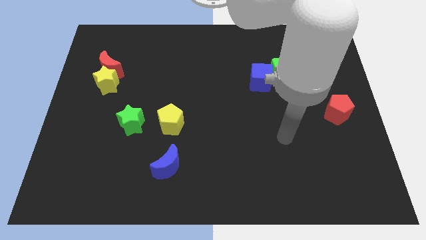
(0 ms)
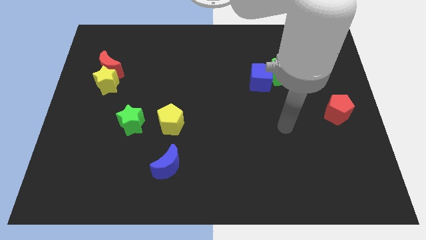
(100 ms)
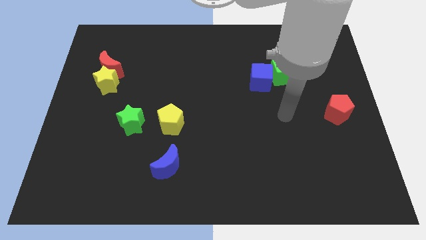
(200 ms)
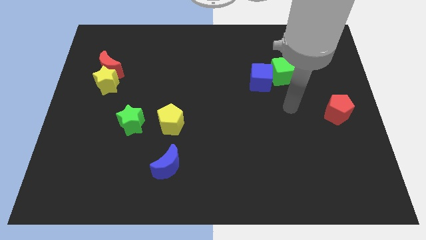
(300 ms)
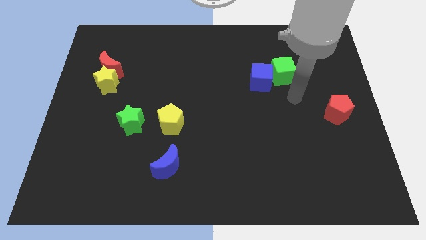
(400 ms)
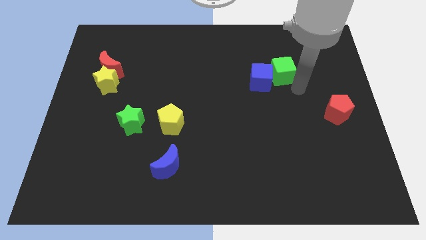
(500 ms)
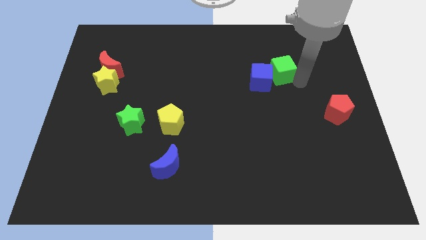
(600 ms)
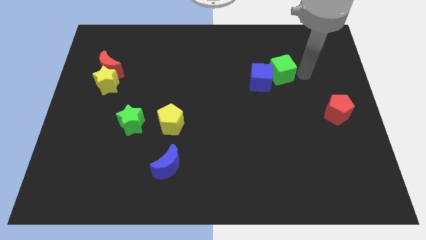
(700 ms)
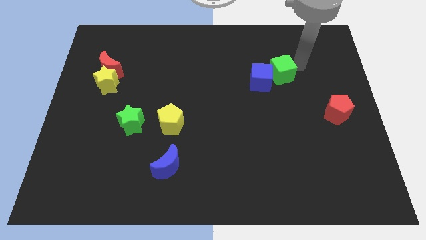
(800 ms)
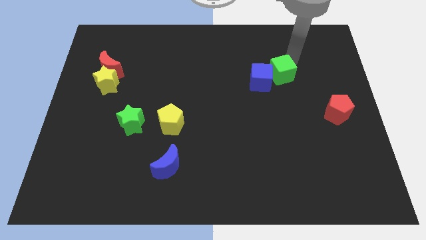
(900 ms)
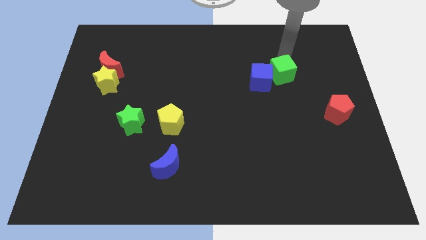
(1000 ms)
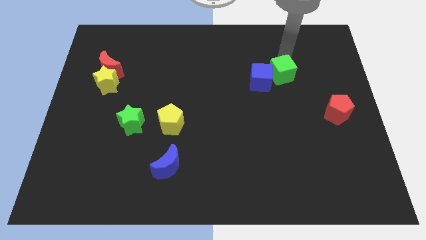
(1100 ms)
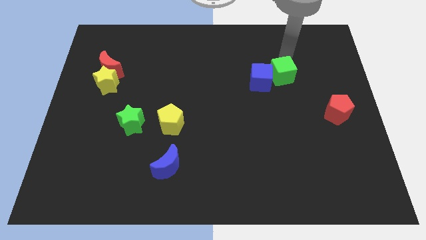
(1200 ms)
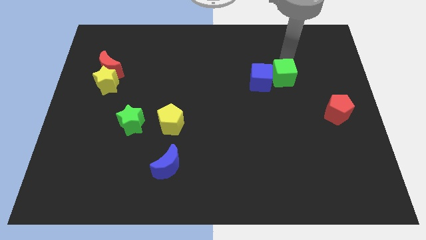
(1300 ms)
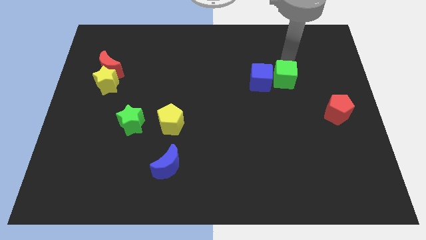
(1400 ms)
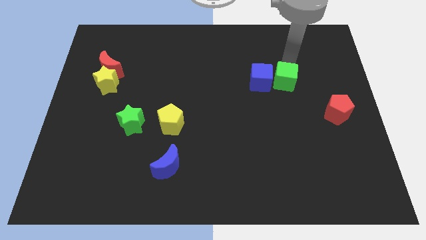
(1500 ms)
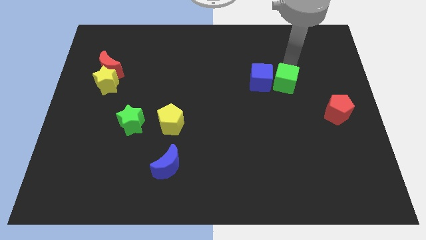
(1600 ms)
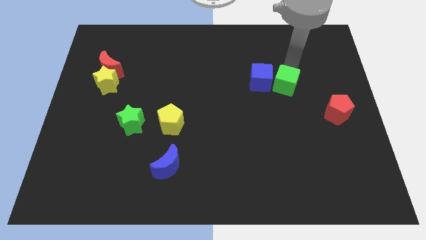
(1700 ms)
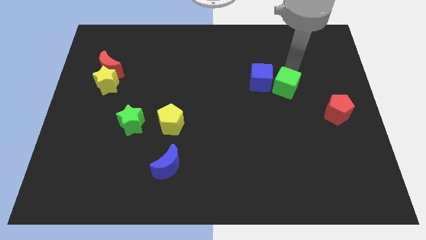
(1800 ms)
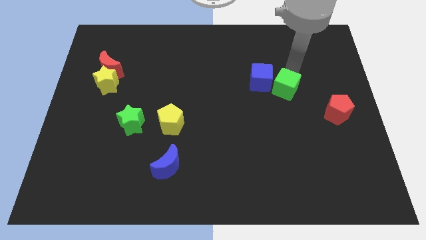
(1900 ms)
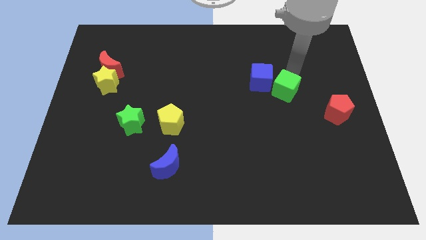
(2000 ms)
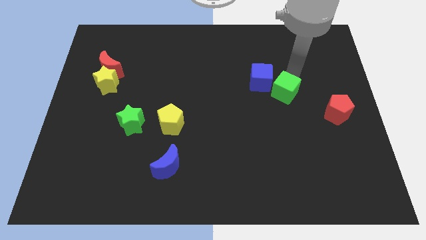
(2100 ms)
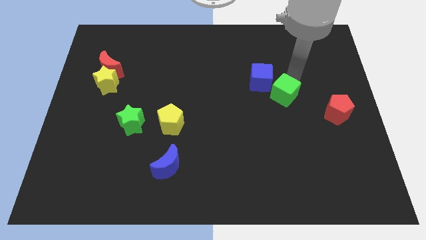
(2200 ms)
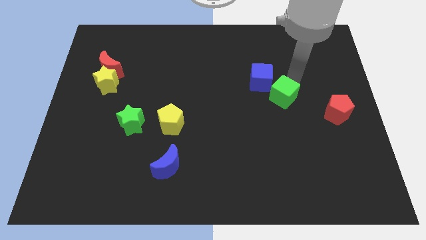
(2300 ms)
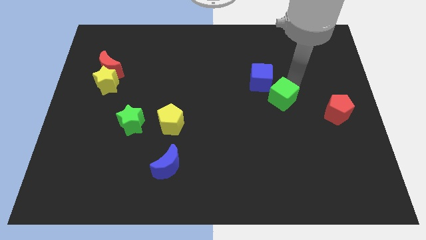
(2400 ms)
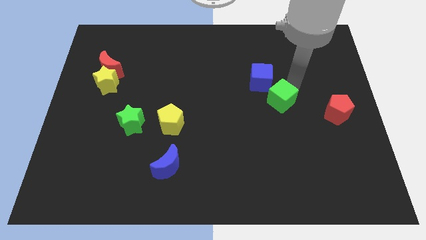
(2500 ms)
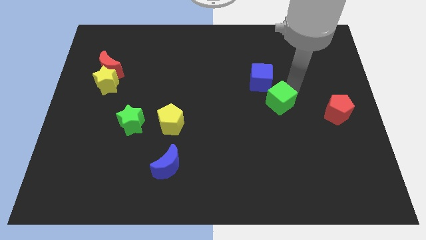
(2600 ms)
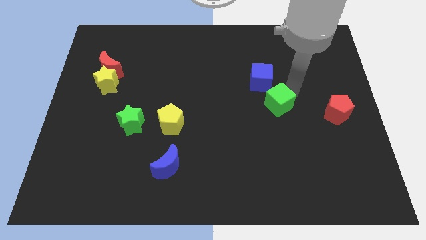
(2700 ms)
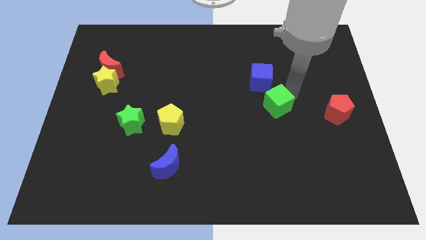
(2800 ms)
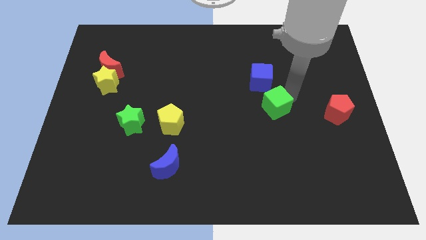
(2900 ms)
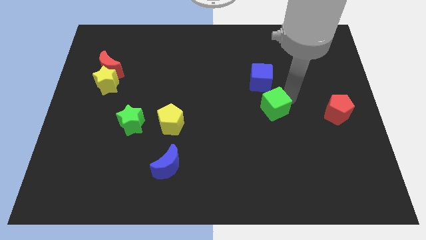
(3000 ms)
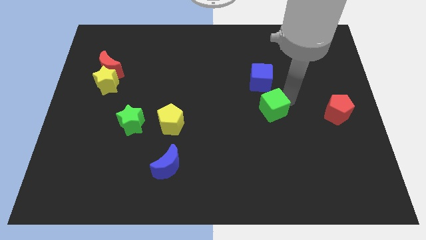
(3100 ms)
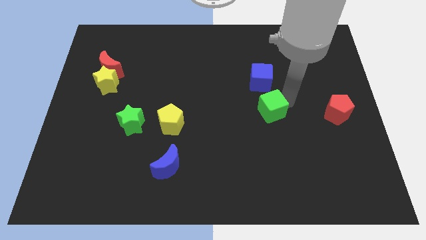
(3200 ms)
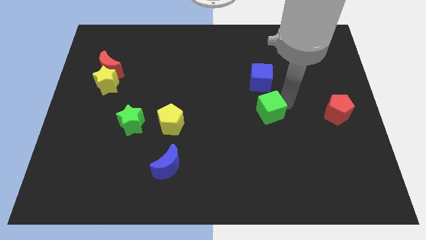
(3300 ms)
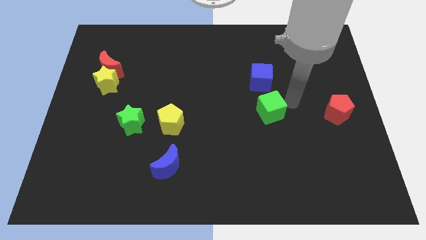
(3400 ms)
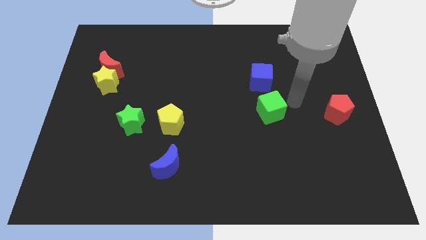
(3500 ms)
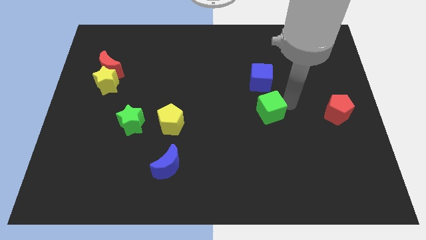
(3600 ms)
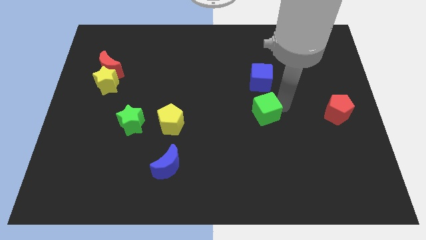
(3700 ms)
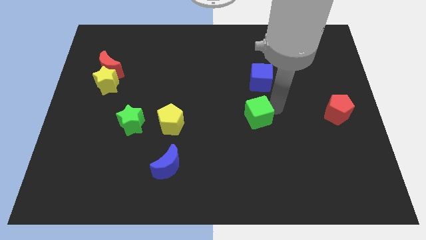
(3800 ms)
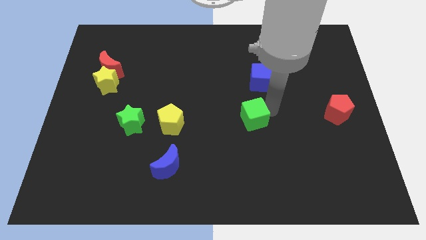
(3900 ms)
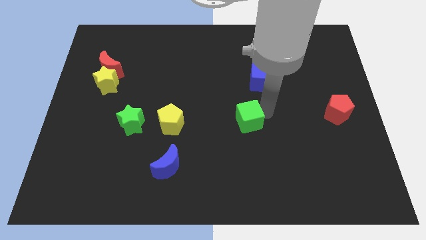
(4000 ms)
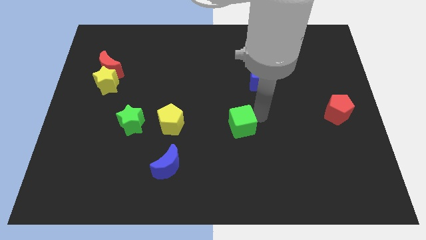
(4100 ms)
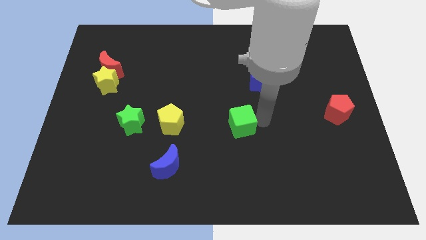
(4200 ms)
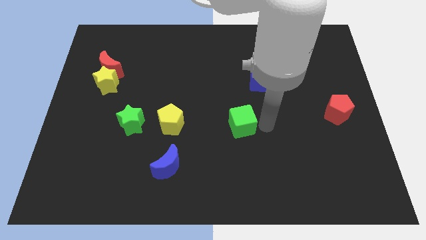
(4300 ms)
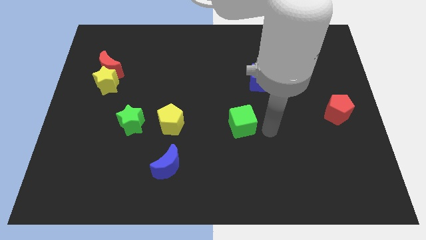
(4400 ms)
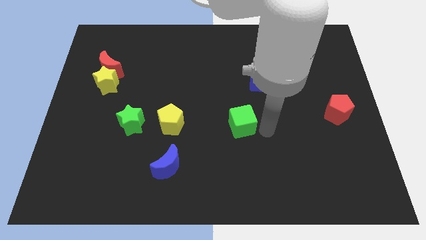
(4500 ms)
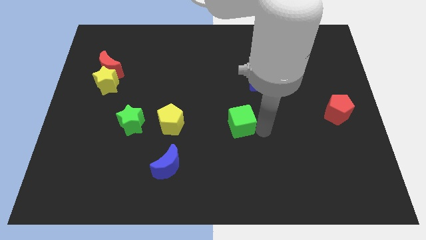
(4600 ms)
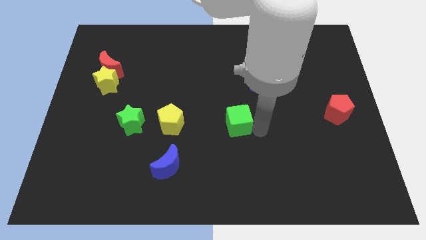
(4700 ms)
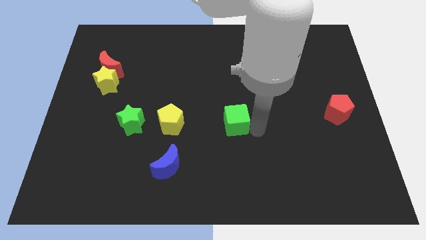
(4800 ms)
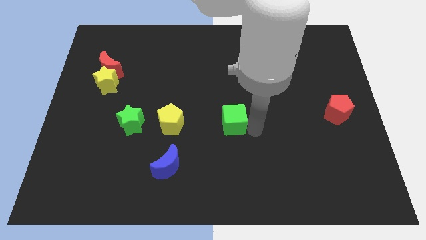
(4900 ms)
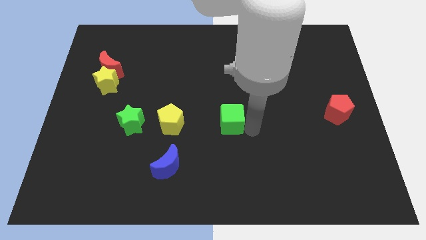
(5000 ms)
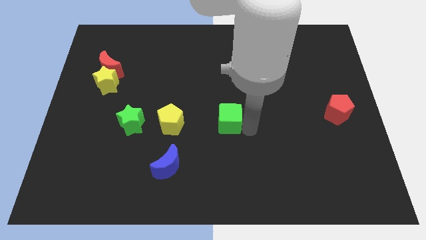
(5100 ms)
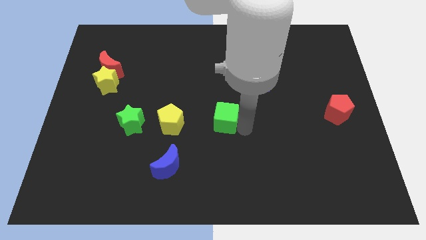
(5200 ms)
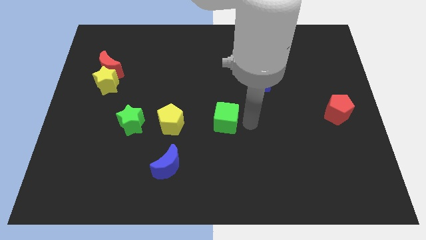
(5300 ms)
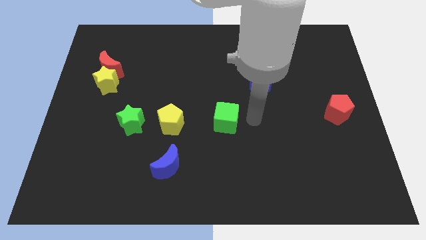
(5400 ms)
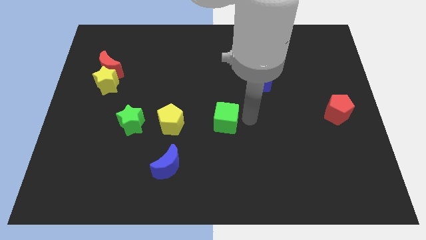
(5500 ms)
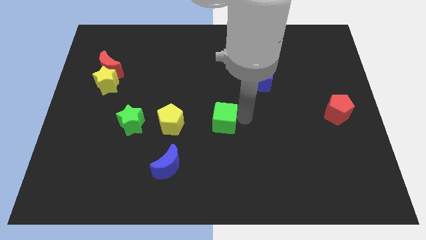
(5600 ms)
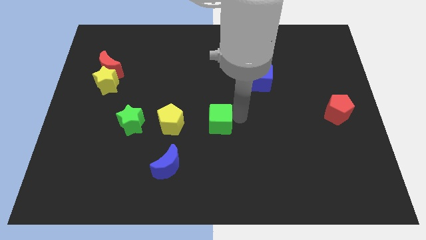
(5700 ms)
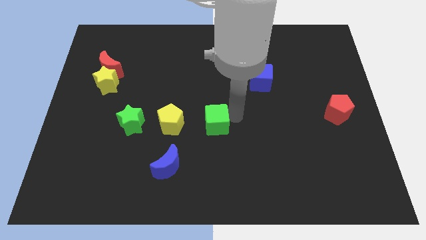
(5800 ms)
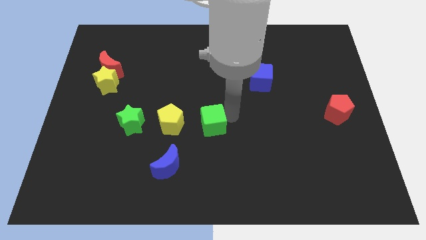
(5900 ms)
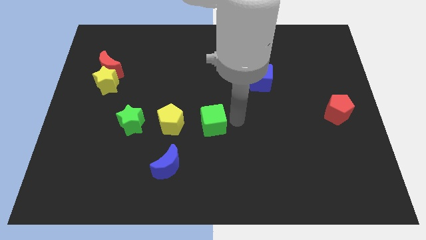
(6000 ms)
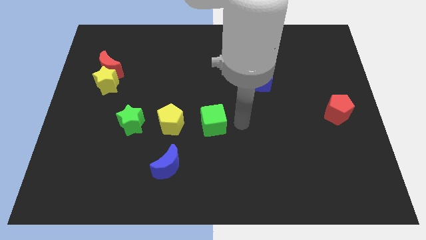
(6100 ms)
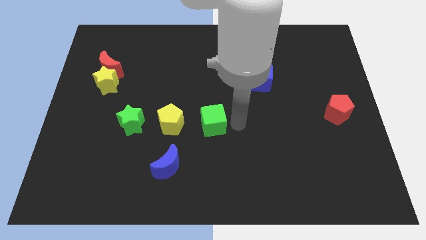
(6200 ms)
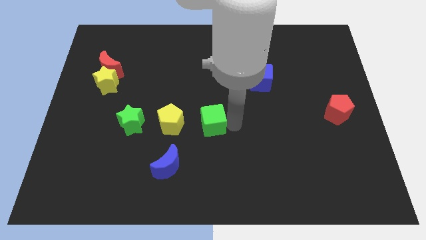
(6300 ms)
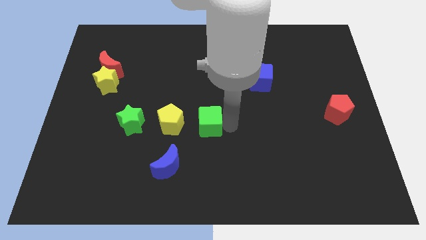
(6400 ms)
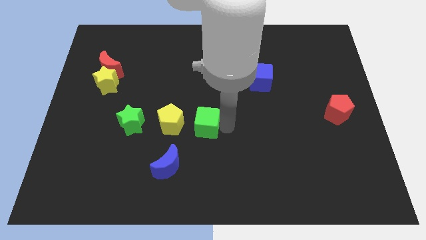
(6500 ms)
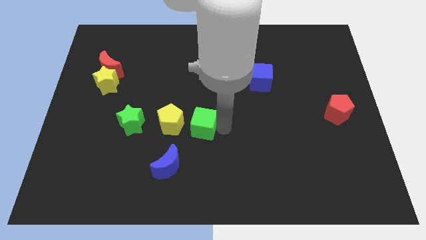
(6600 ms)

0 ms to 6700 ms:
slide the green cube to the right side of the green star

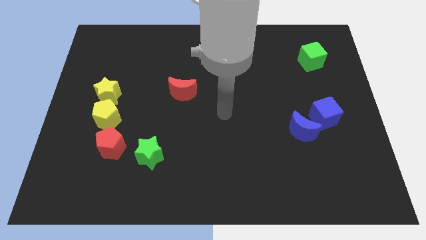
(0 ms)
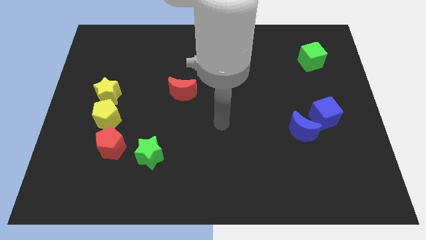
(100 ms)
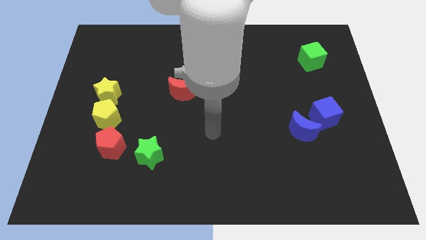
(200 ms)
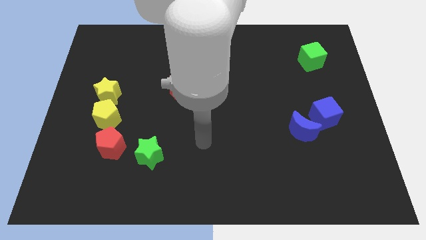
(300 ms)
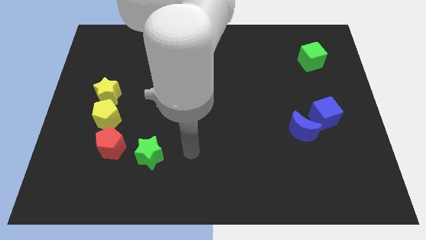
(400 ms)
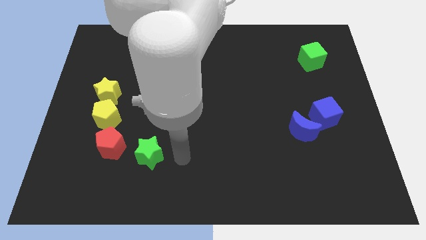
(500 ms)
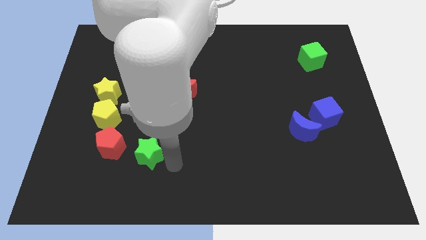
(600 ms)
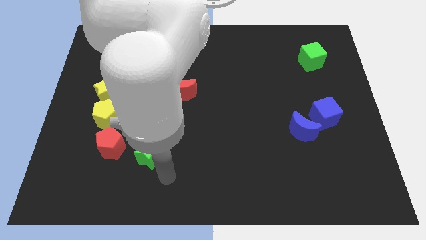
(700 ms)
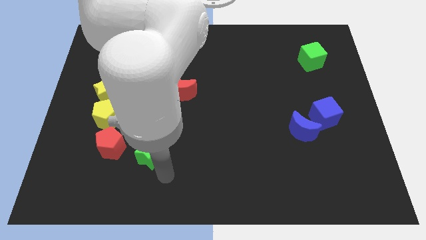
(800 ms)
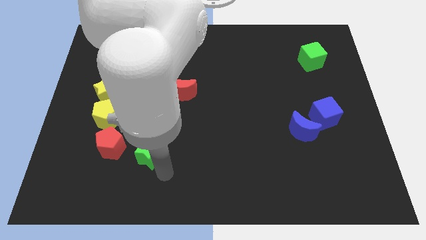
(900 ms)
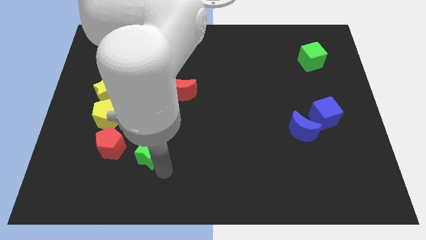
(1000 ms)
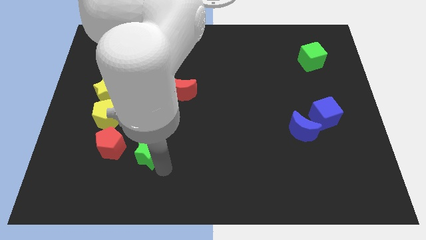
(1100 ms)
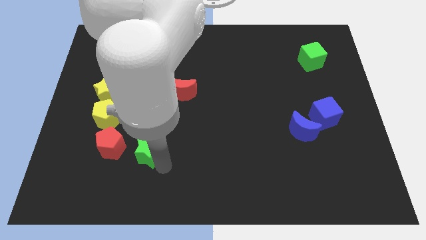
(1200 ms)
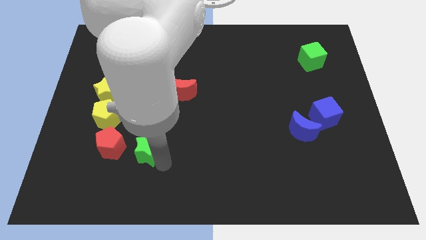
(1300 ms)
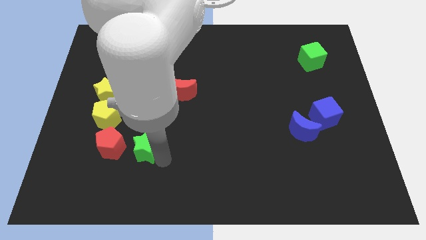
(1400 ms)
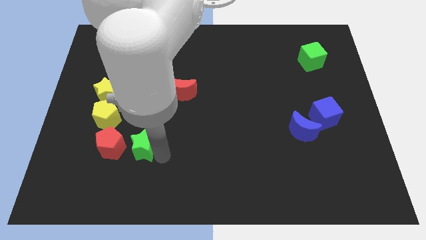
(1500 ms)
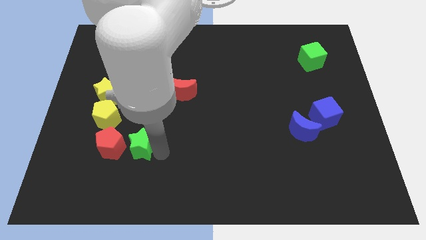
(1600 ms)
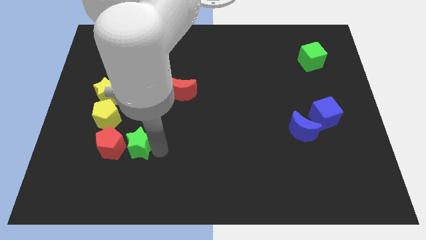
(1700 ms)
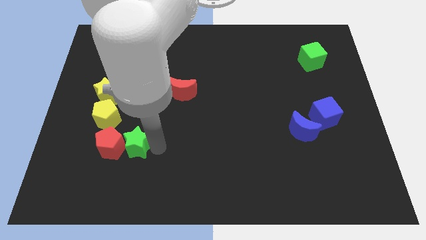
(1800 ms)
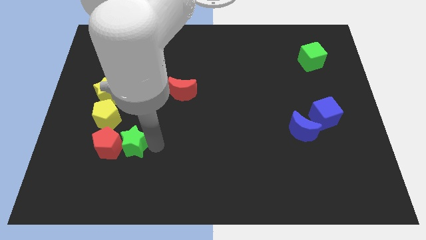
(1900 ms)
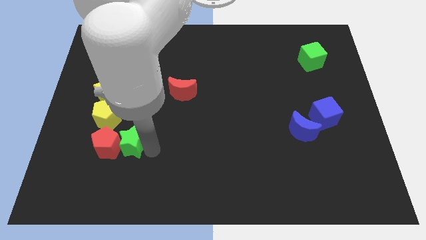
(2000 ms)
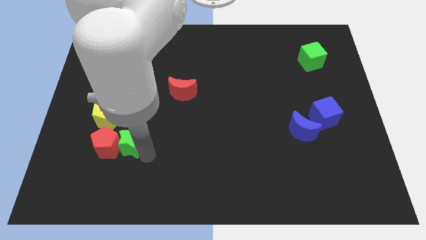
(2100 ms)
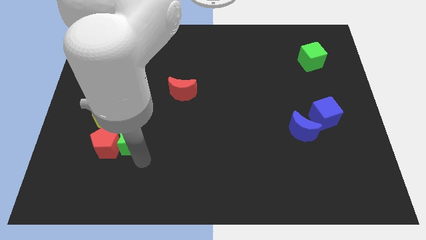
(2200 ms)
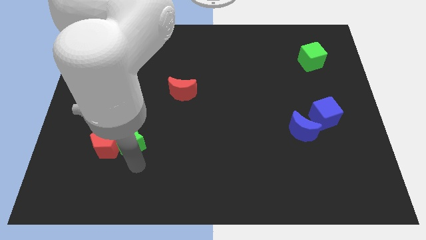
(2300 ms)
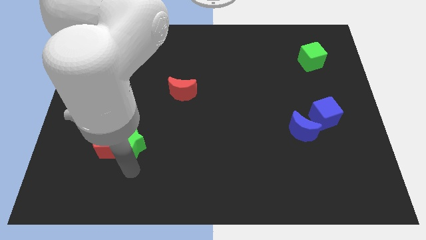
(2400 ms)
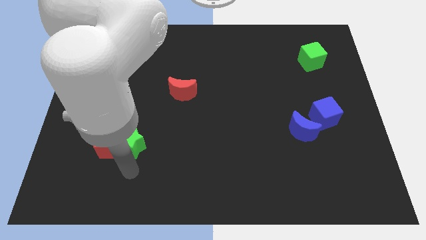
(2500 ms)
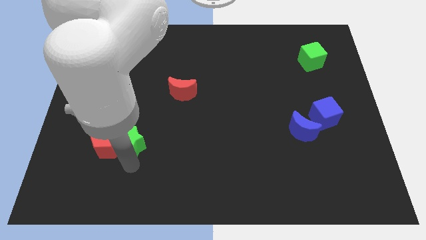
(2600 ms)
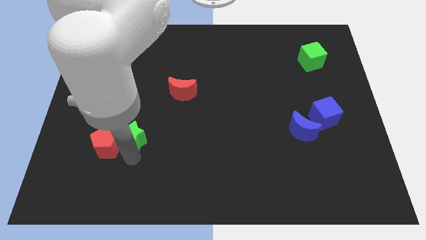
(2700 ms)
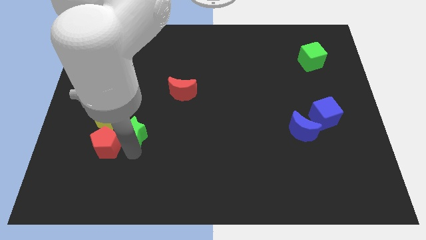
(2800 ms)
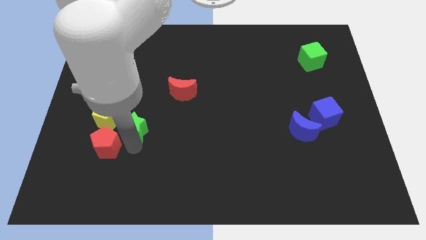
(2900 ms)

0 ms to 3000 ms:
push the green star diagonally down and to the right of the yellow star
